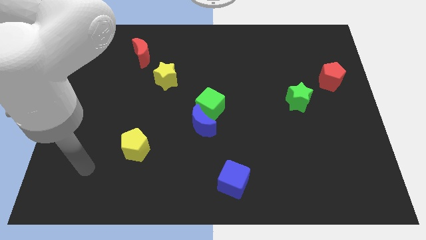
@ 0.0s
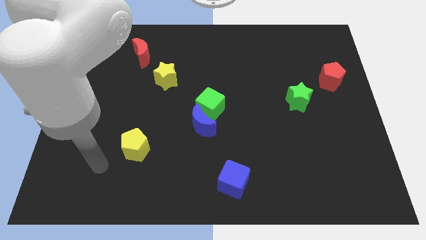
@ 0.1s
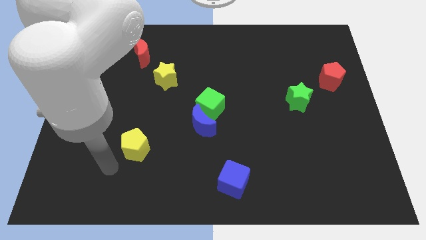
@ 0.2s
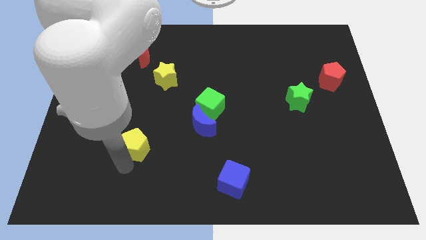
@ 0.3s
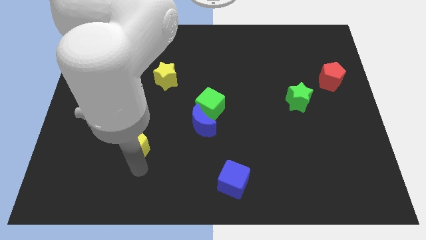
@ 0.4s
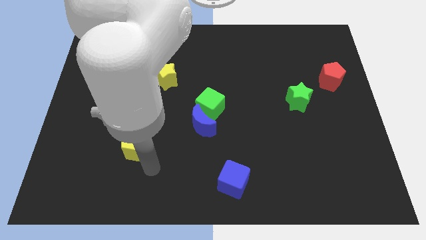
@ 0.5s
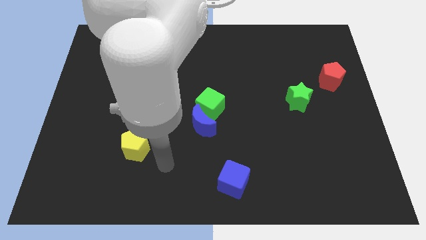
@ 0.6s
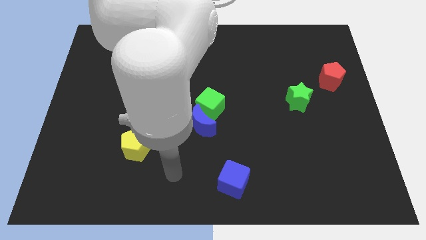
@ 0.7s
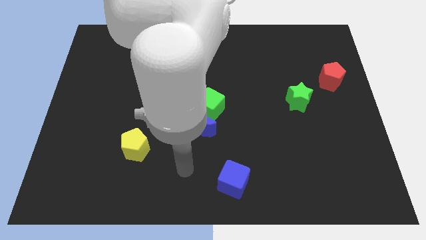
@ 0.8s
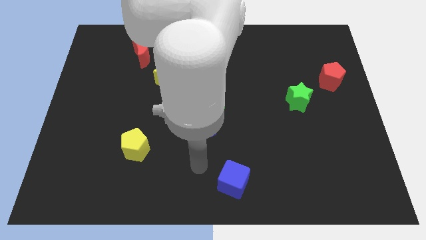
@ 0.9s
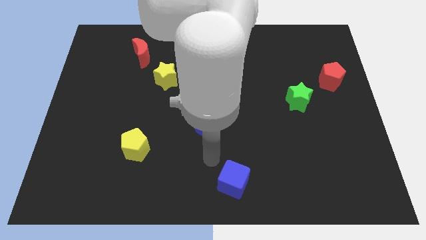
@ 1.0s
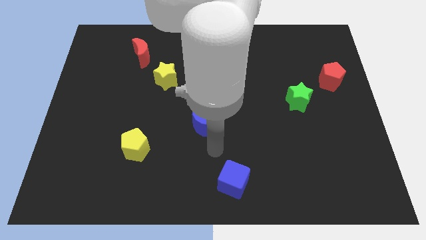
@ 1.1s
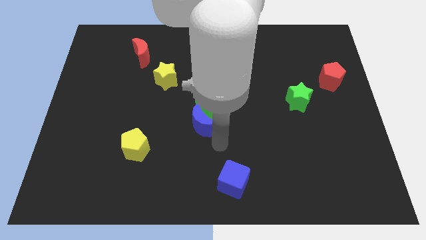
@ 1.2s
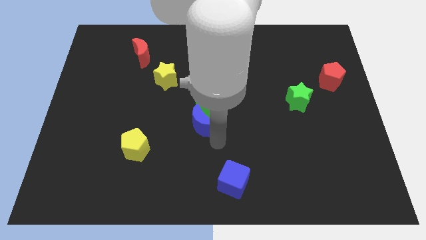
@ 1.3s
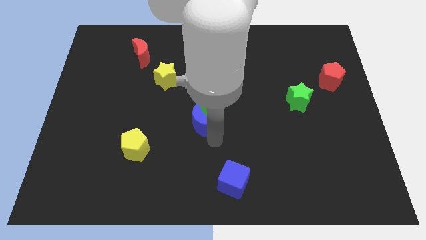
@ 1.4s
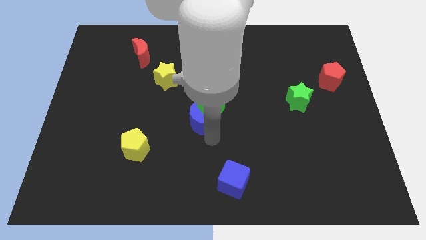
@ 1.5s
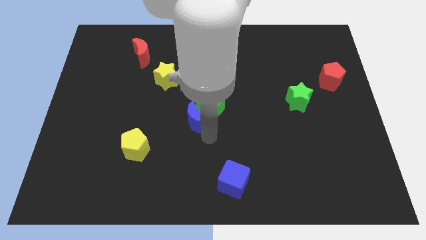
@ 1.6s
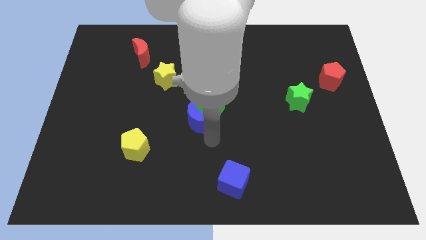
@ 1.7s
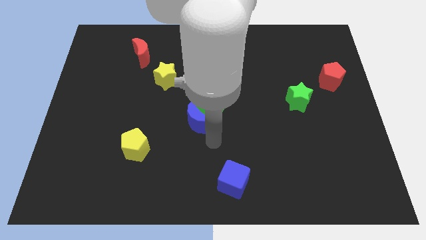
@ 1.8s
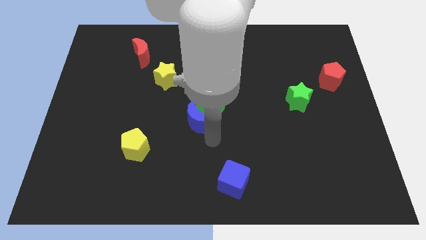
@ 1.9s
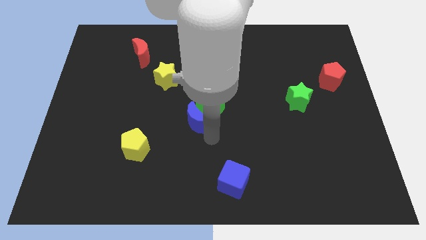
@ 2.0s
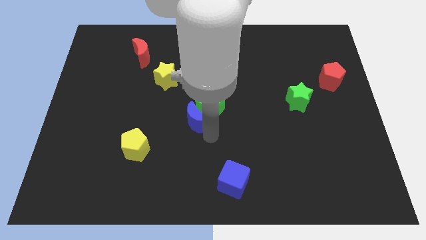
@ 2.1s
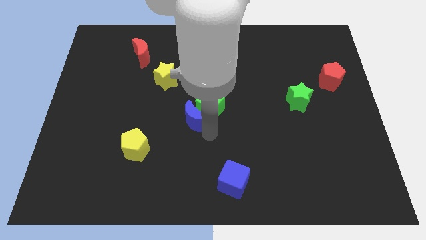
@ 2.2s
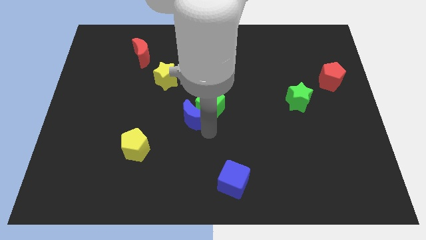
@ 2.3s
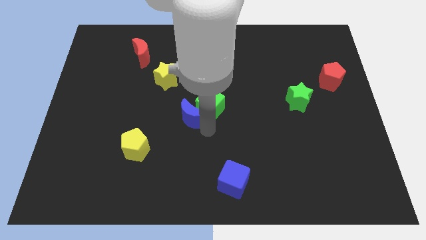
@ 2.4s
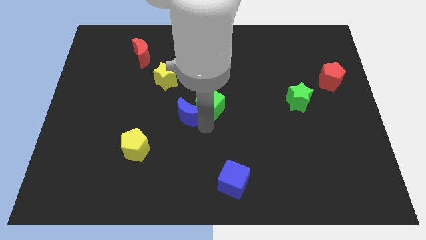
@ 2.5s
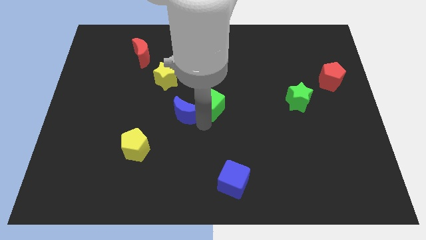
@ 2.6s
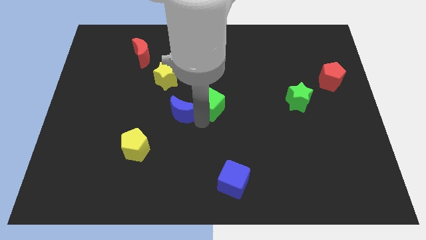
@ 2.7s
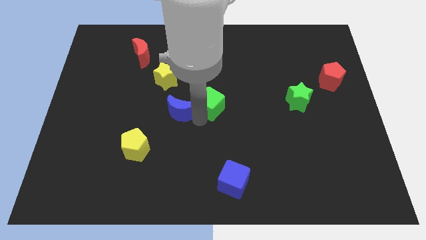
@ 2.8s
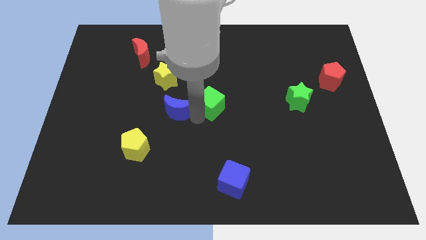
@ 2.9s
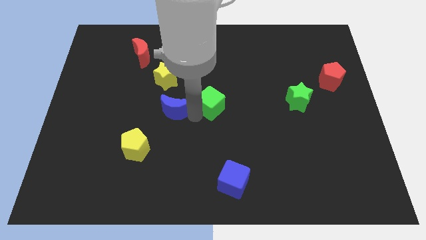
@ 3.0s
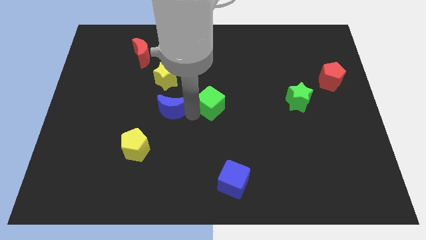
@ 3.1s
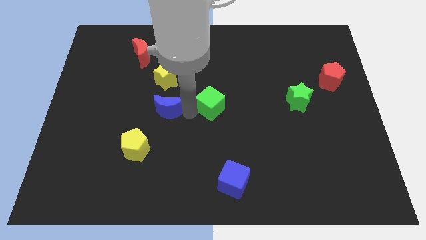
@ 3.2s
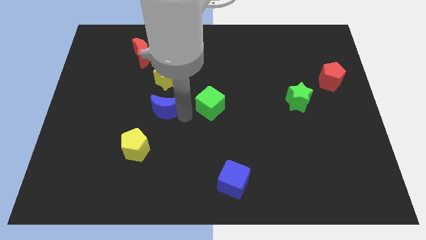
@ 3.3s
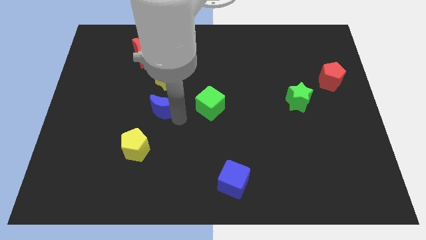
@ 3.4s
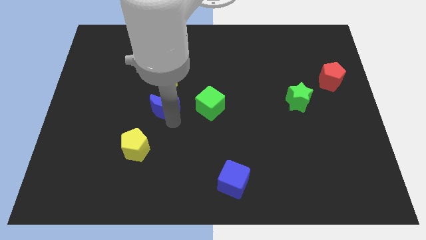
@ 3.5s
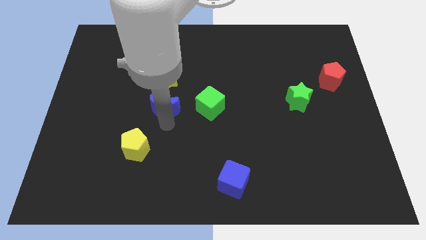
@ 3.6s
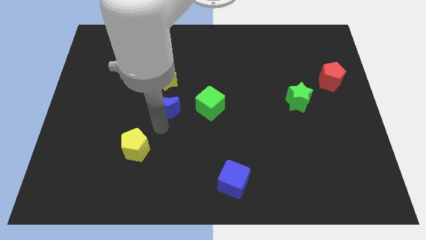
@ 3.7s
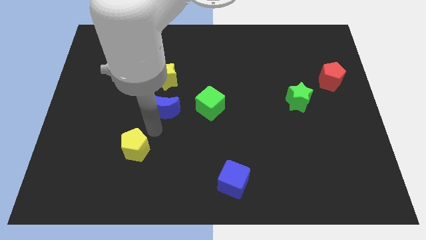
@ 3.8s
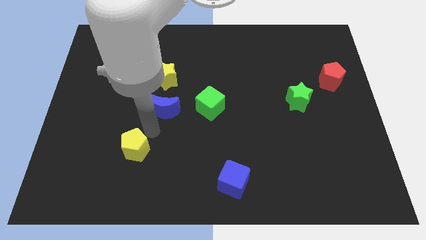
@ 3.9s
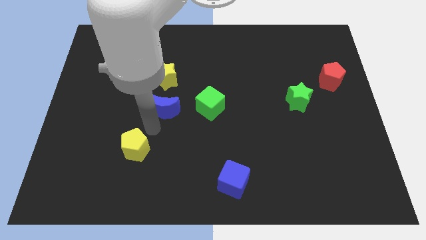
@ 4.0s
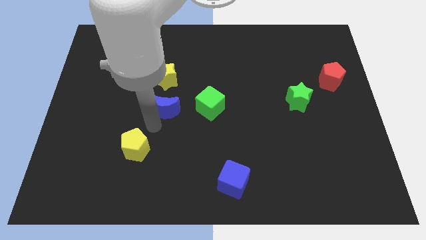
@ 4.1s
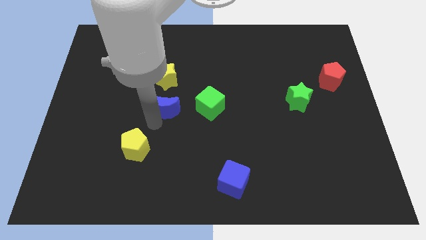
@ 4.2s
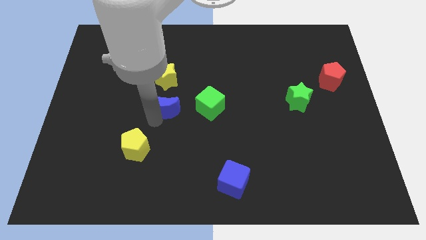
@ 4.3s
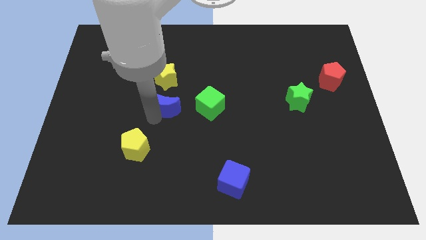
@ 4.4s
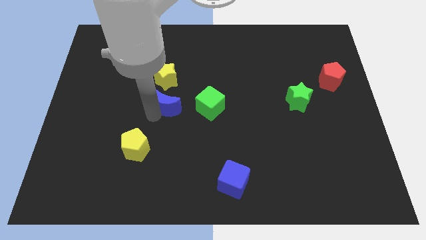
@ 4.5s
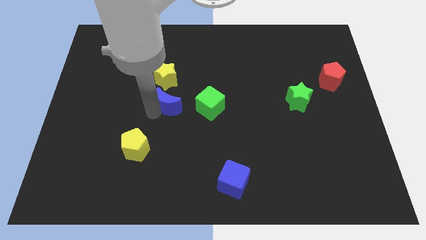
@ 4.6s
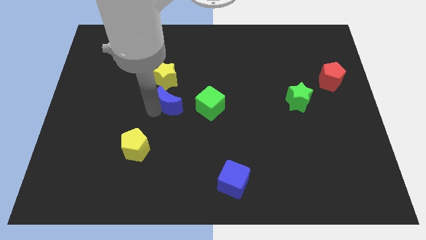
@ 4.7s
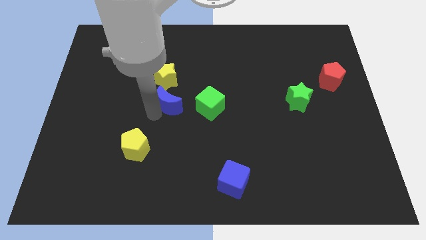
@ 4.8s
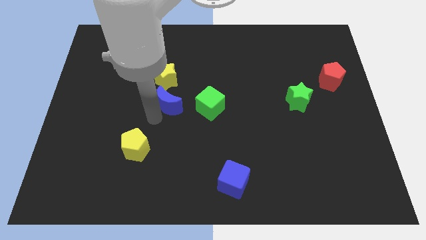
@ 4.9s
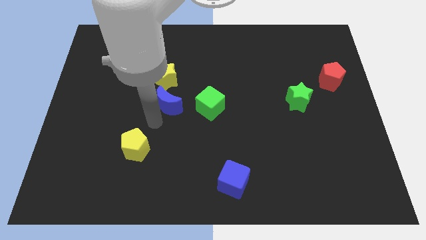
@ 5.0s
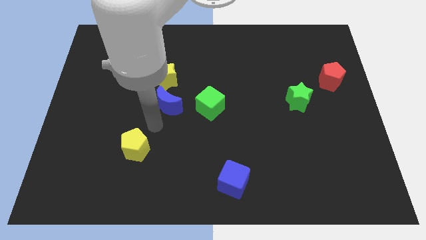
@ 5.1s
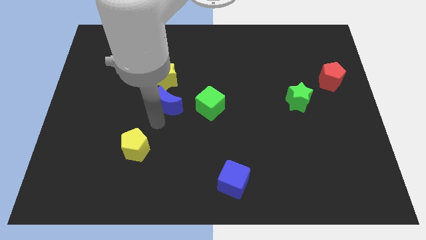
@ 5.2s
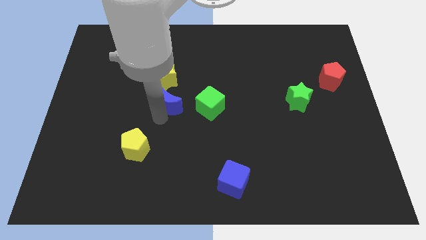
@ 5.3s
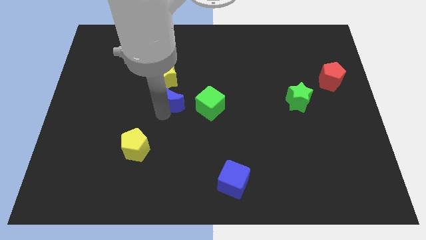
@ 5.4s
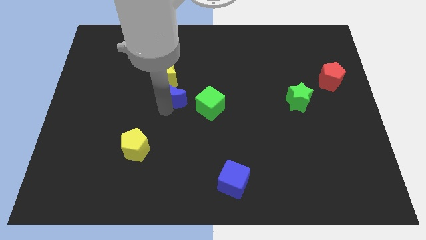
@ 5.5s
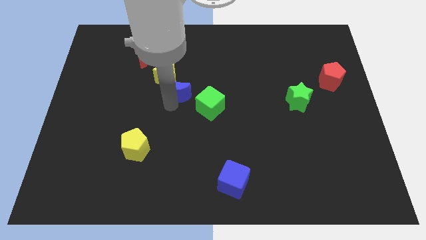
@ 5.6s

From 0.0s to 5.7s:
push the blue moon next to the yellow star
